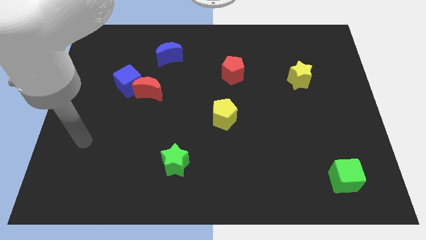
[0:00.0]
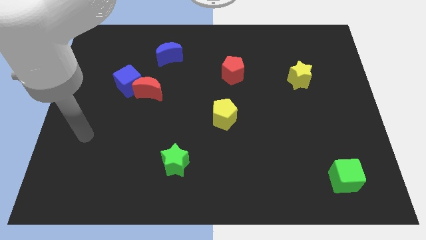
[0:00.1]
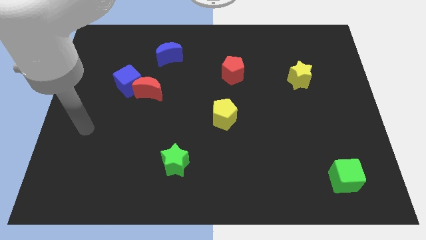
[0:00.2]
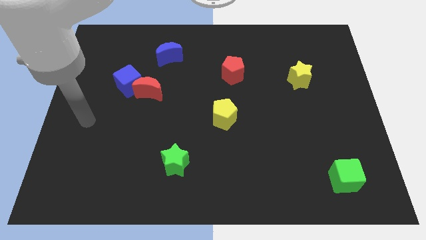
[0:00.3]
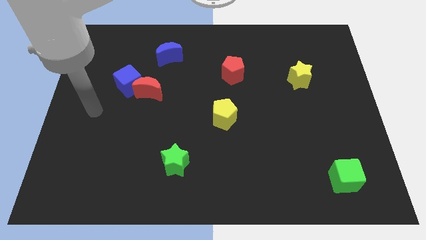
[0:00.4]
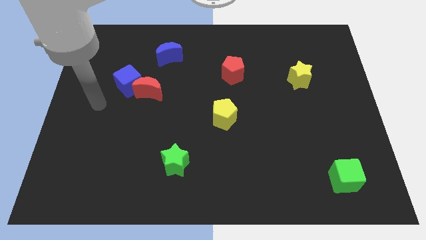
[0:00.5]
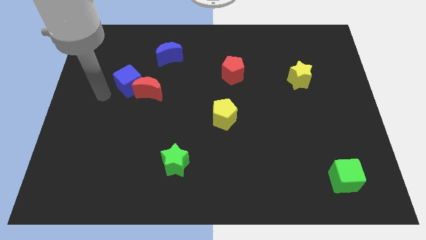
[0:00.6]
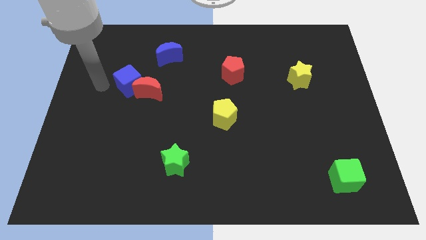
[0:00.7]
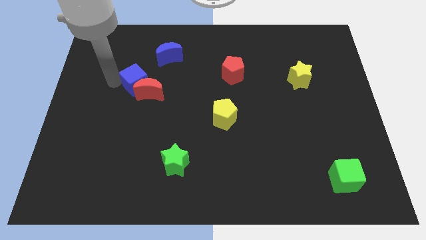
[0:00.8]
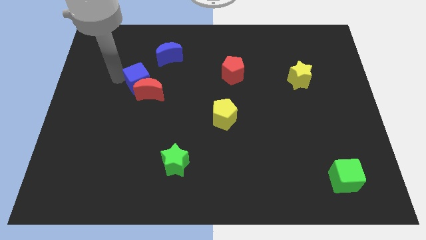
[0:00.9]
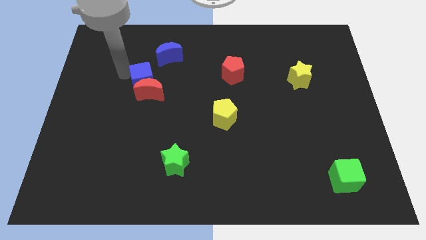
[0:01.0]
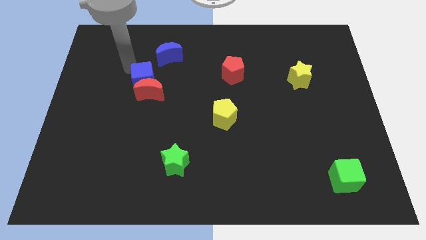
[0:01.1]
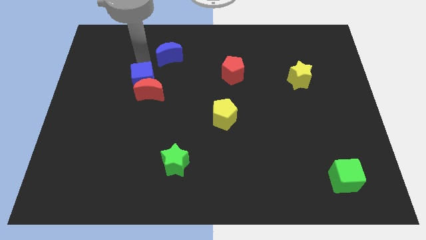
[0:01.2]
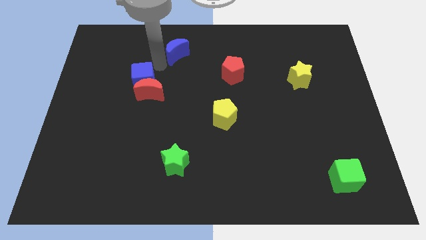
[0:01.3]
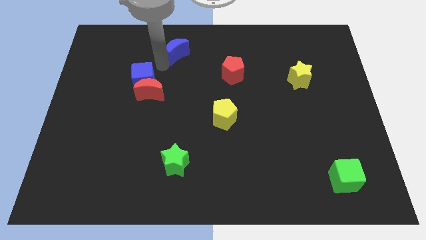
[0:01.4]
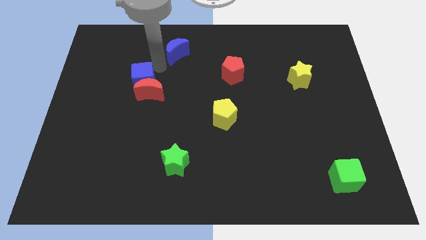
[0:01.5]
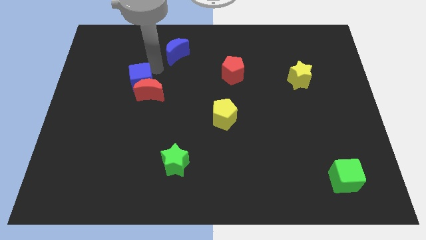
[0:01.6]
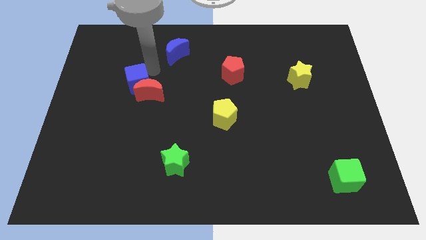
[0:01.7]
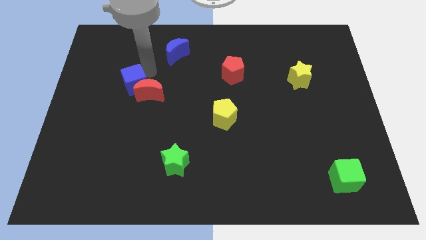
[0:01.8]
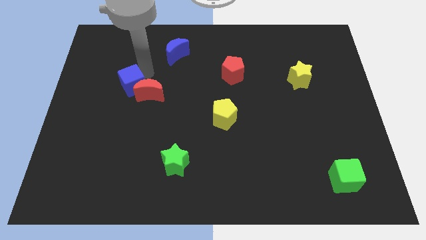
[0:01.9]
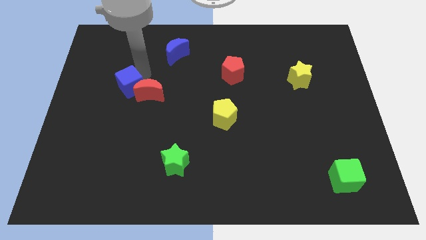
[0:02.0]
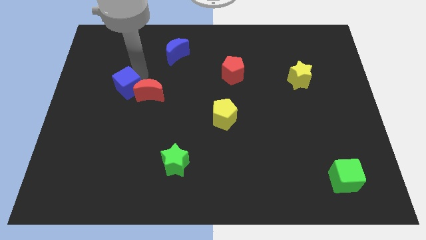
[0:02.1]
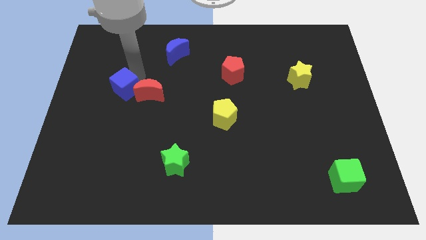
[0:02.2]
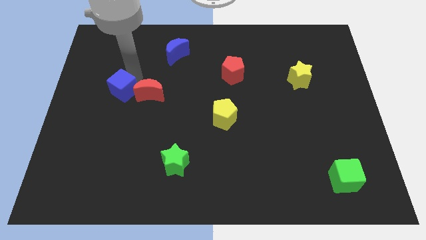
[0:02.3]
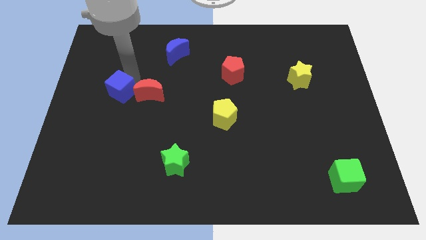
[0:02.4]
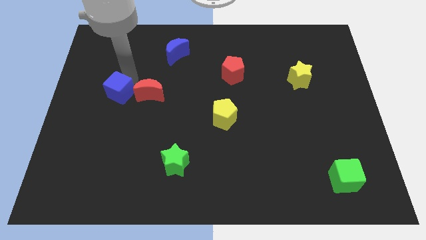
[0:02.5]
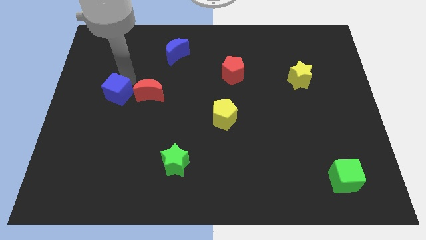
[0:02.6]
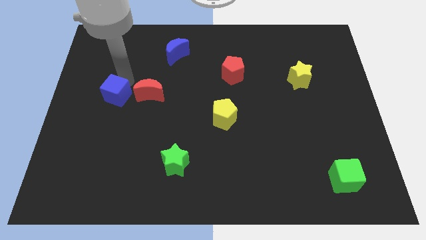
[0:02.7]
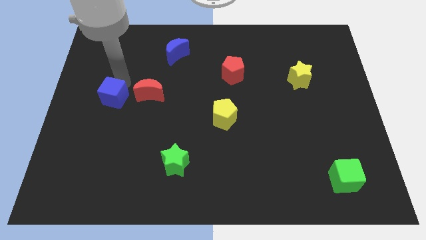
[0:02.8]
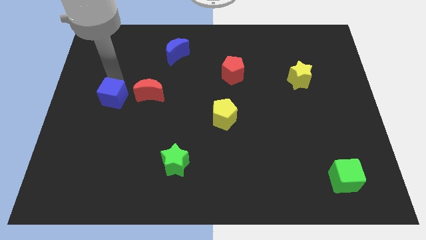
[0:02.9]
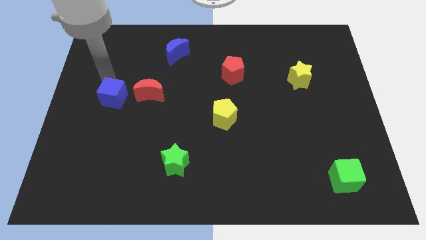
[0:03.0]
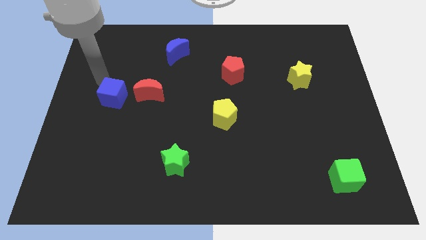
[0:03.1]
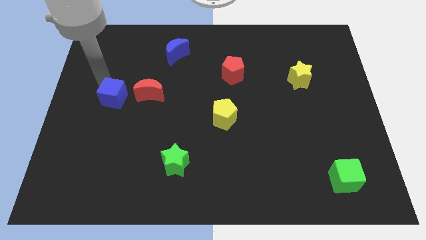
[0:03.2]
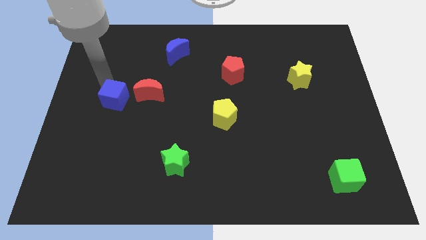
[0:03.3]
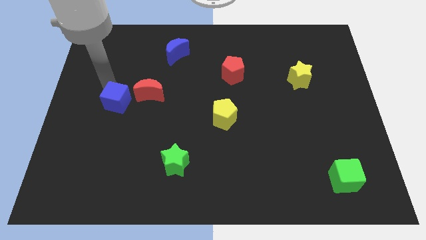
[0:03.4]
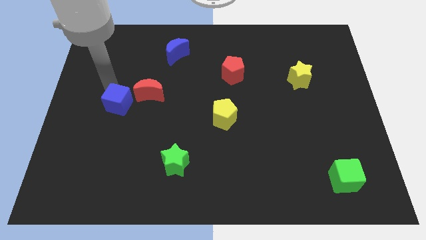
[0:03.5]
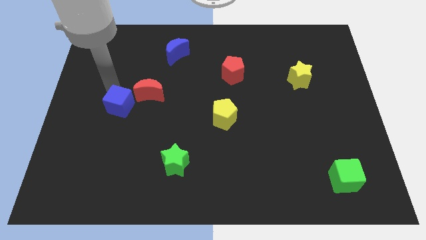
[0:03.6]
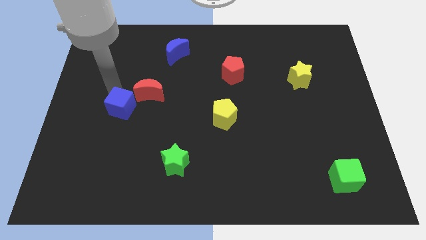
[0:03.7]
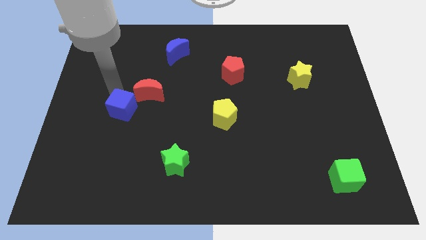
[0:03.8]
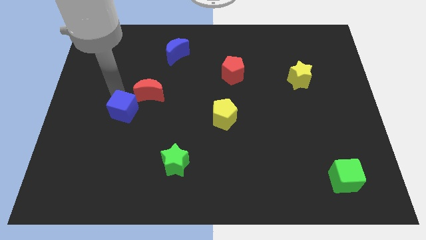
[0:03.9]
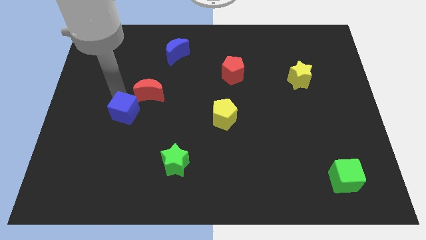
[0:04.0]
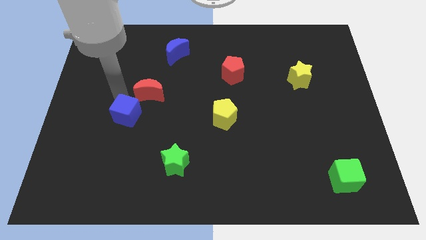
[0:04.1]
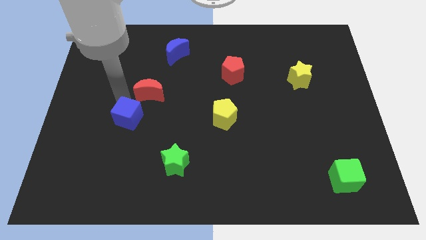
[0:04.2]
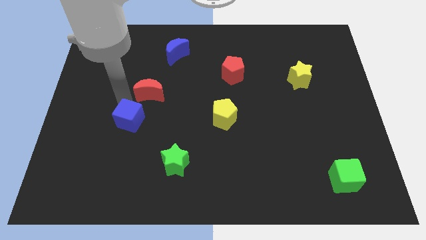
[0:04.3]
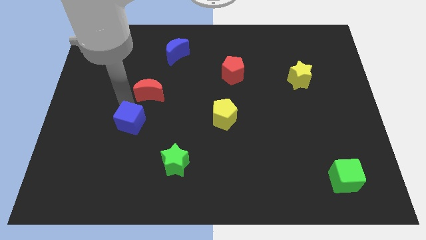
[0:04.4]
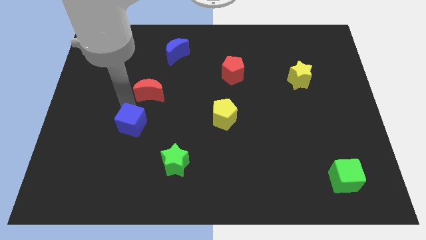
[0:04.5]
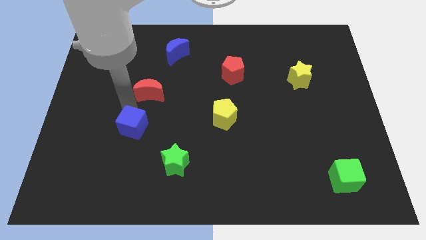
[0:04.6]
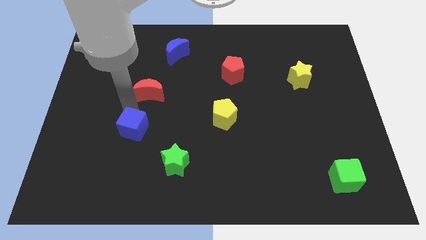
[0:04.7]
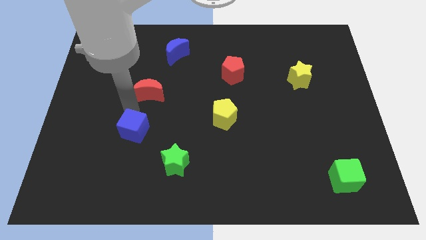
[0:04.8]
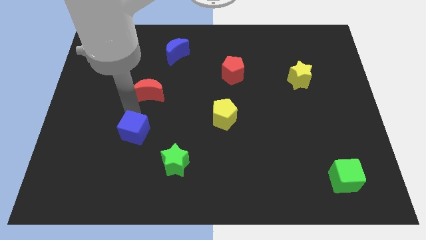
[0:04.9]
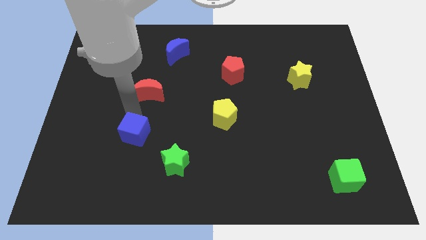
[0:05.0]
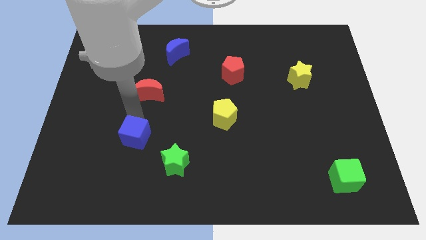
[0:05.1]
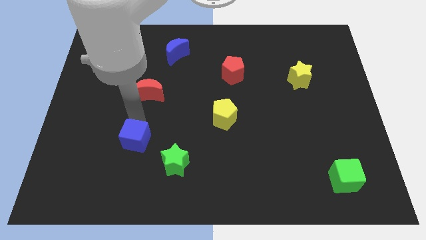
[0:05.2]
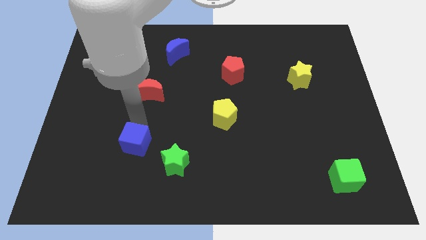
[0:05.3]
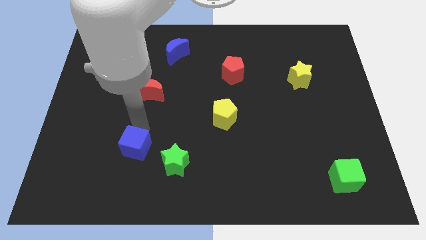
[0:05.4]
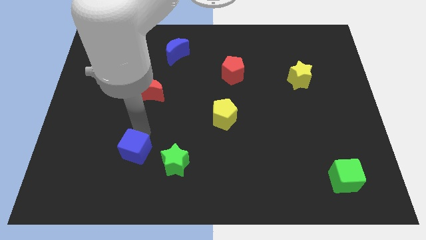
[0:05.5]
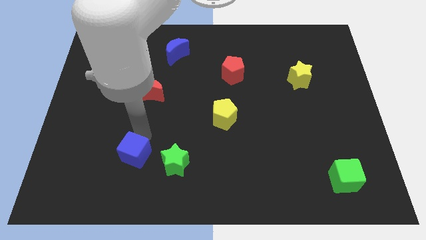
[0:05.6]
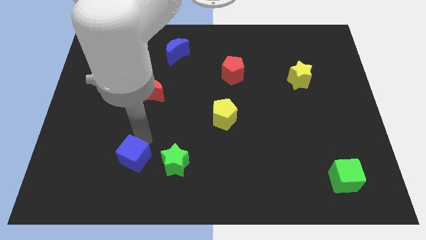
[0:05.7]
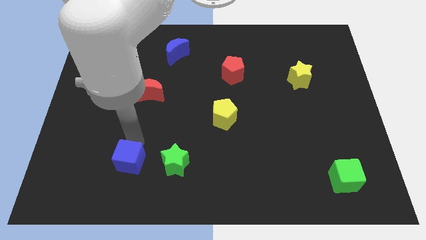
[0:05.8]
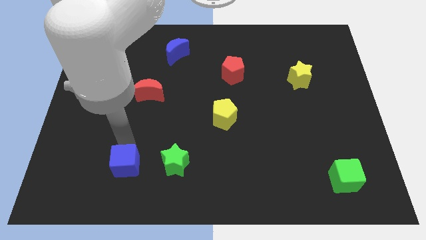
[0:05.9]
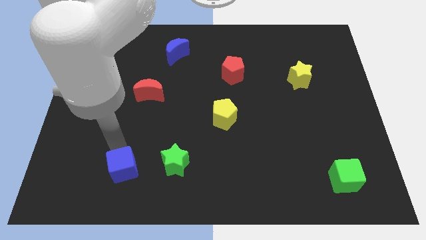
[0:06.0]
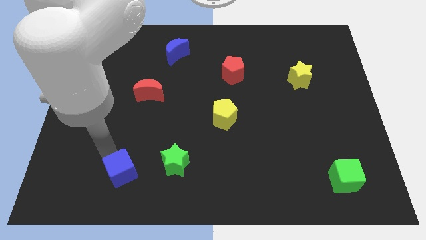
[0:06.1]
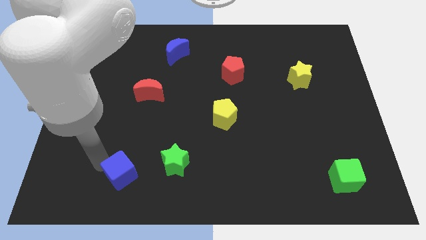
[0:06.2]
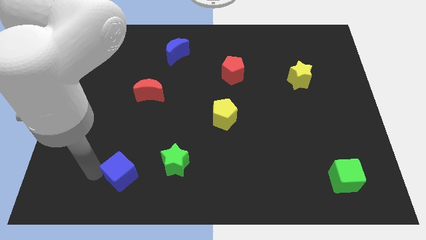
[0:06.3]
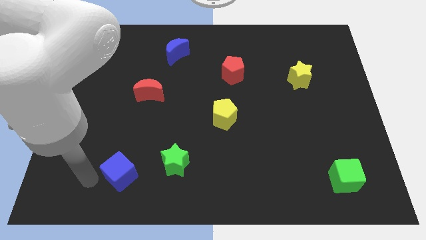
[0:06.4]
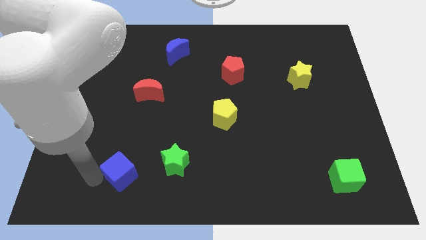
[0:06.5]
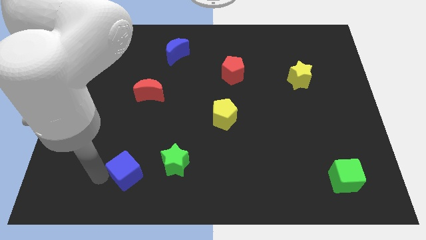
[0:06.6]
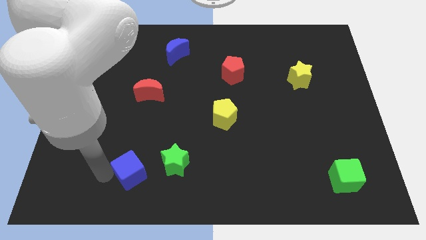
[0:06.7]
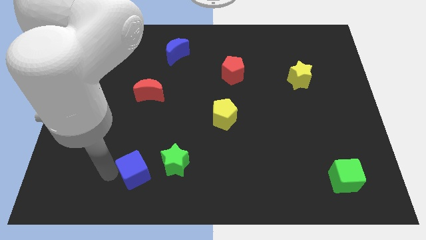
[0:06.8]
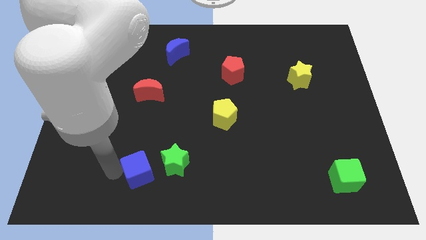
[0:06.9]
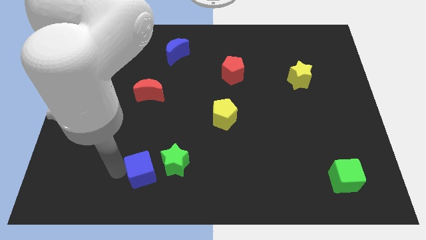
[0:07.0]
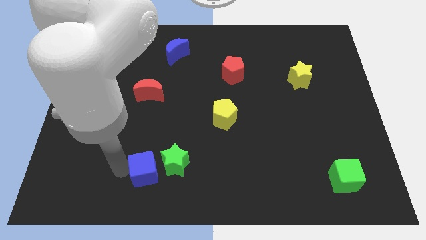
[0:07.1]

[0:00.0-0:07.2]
slide the blue cube close to the green star
